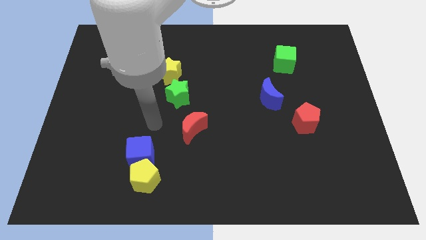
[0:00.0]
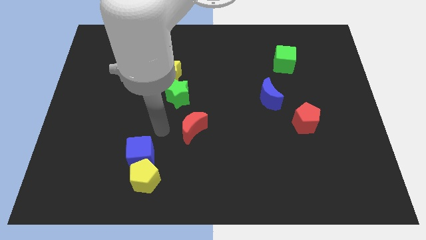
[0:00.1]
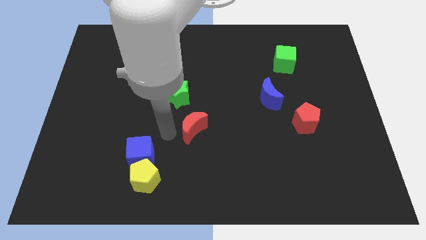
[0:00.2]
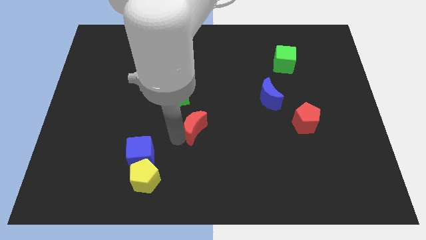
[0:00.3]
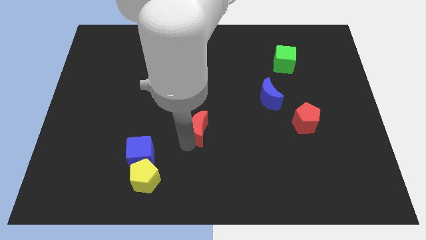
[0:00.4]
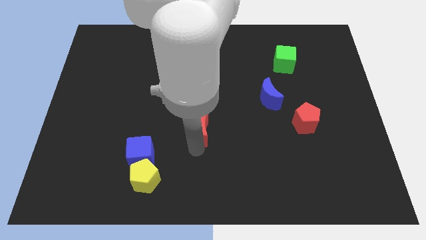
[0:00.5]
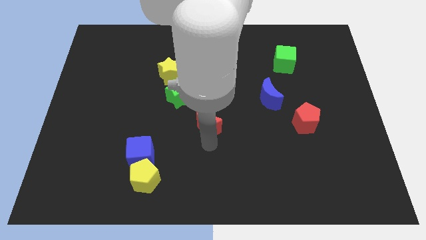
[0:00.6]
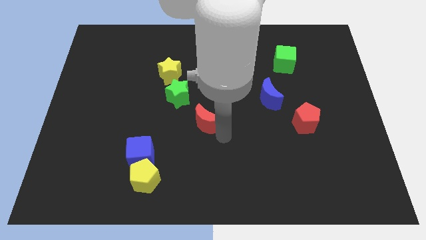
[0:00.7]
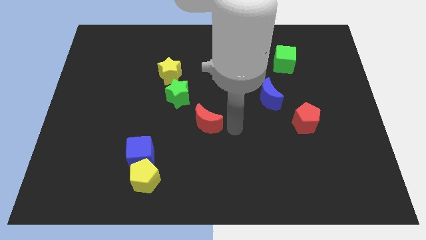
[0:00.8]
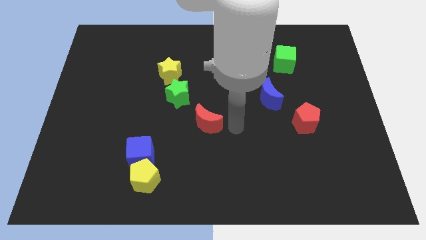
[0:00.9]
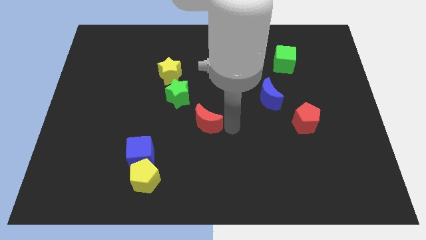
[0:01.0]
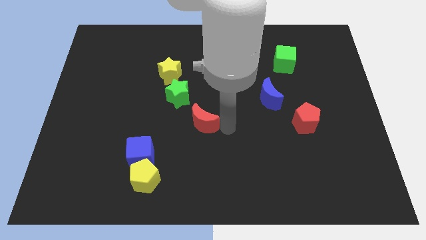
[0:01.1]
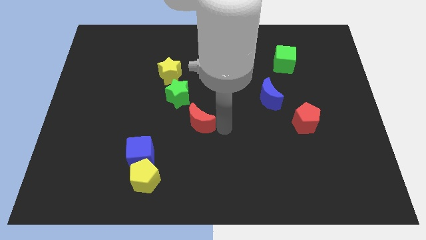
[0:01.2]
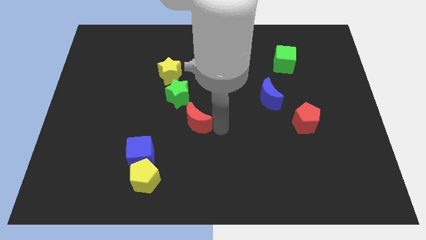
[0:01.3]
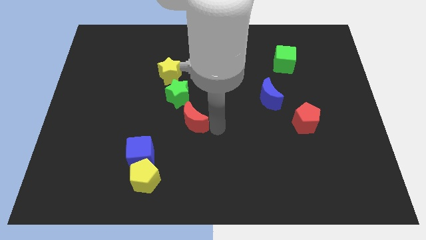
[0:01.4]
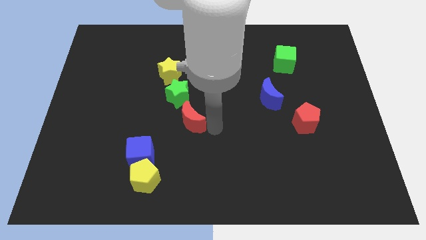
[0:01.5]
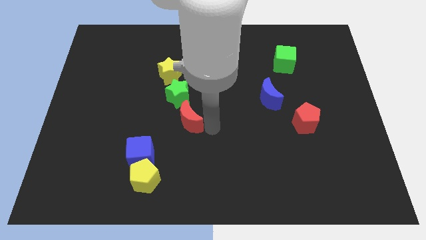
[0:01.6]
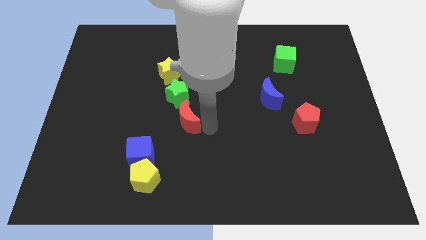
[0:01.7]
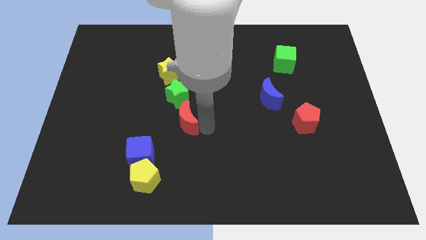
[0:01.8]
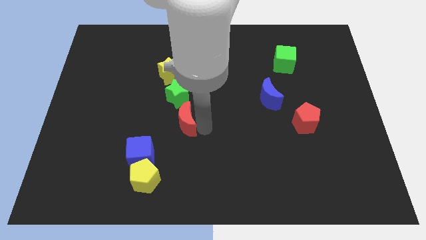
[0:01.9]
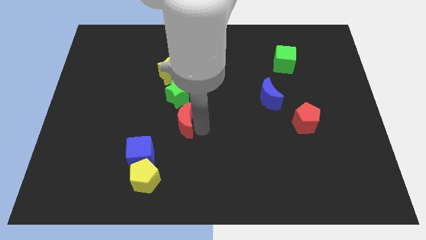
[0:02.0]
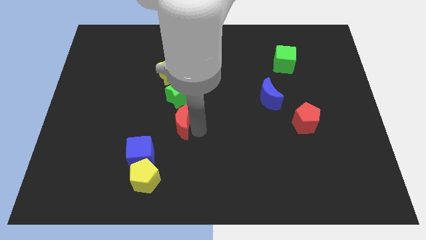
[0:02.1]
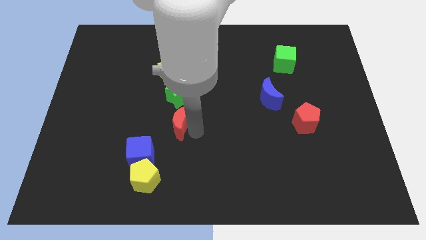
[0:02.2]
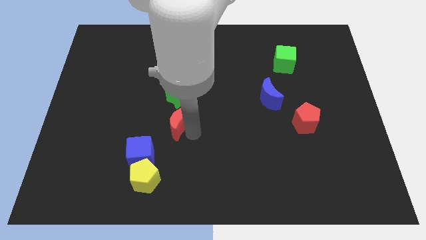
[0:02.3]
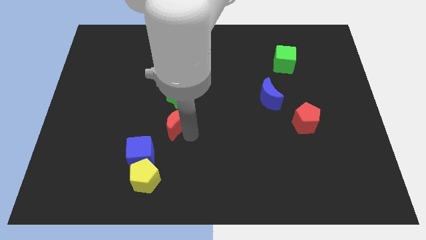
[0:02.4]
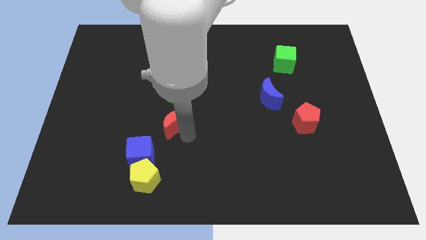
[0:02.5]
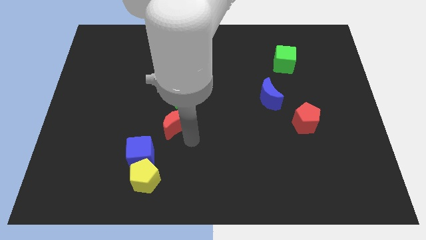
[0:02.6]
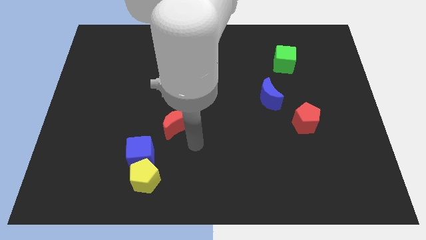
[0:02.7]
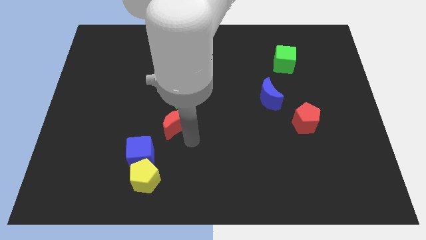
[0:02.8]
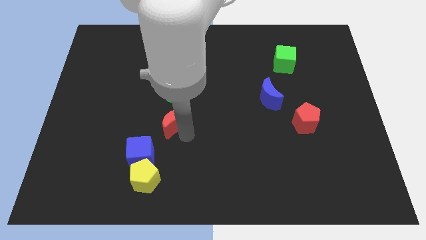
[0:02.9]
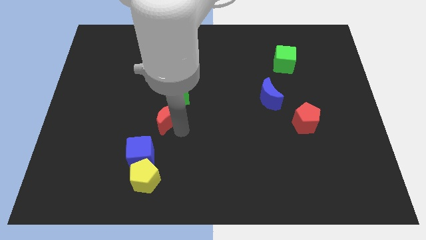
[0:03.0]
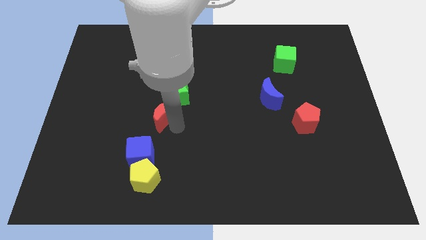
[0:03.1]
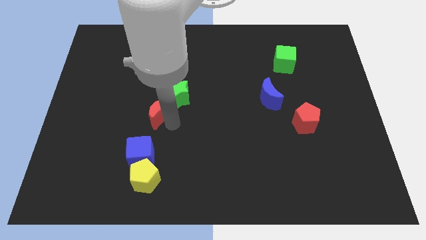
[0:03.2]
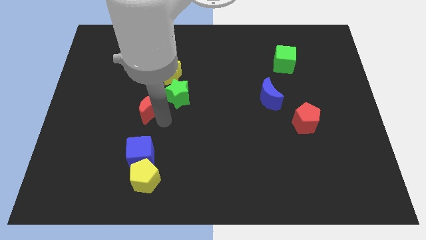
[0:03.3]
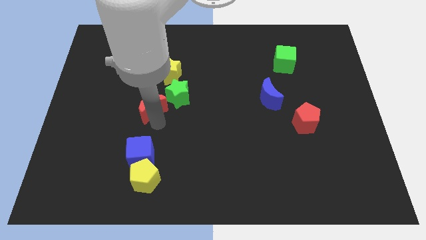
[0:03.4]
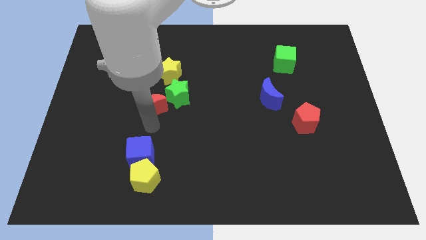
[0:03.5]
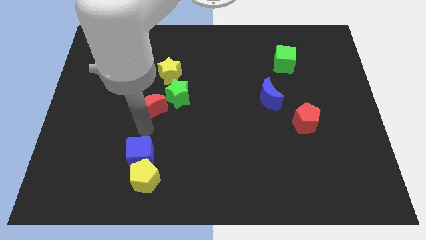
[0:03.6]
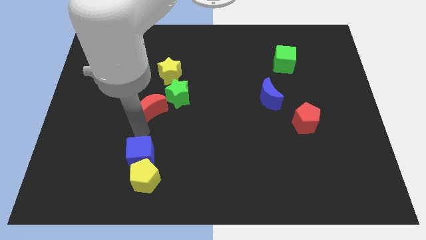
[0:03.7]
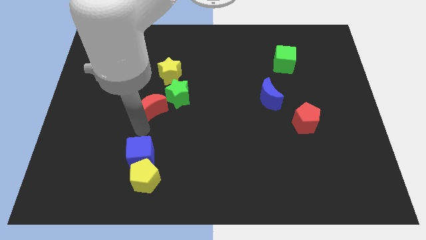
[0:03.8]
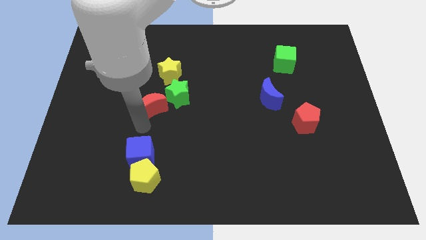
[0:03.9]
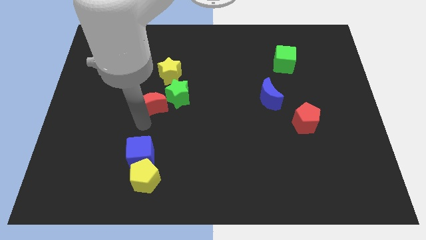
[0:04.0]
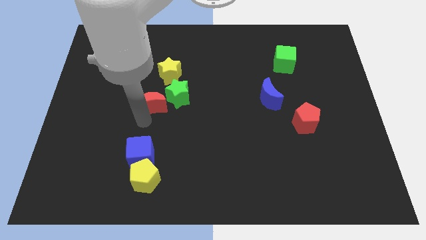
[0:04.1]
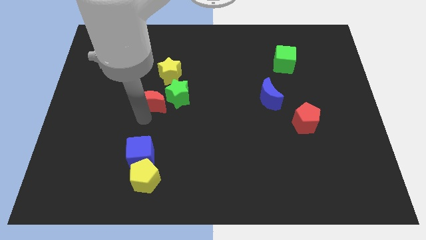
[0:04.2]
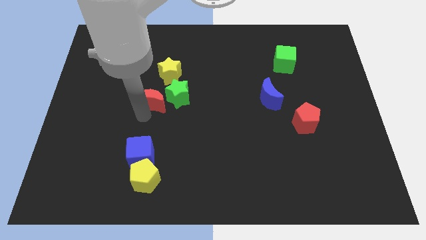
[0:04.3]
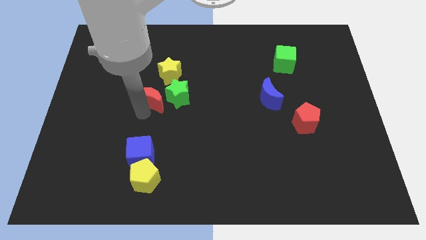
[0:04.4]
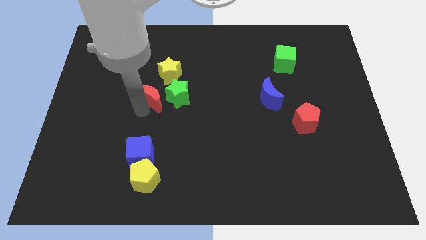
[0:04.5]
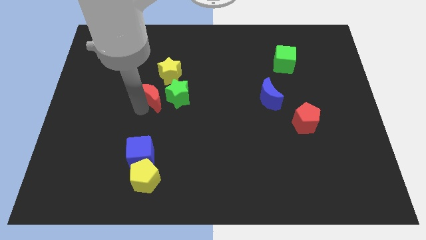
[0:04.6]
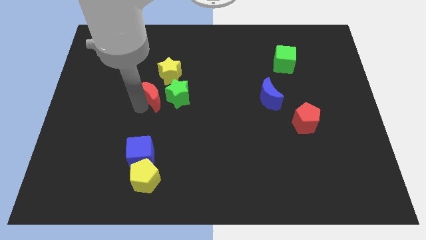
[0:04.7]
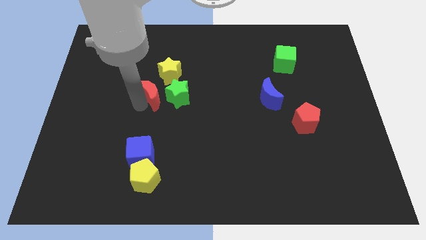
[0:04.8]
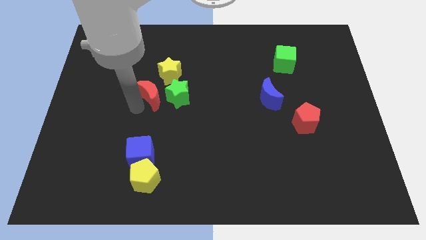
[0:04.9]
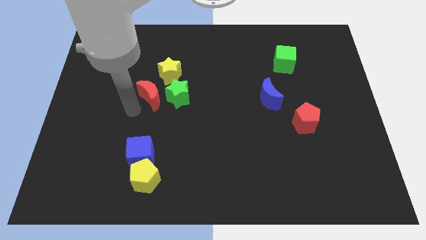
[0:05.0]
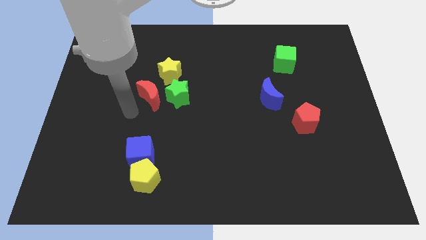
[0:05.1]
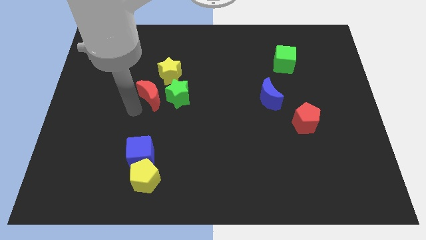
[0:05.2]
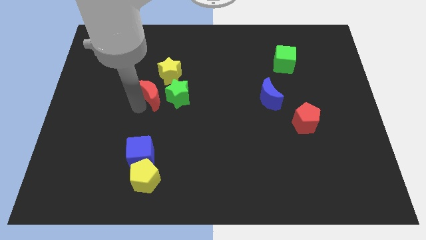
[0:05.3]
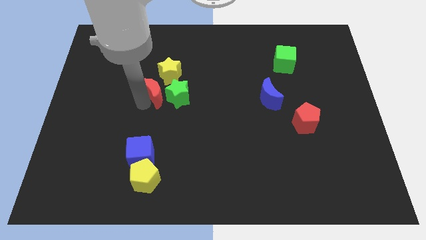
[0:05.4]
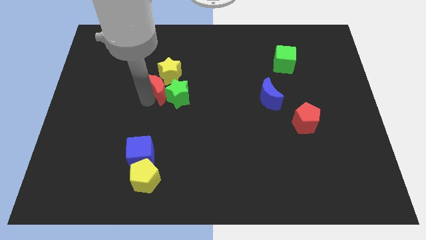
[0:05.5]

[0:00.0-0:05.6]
move the red moon next to the yellow star

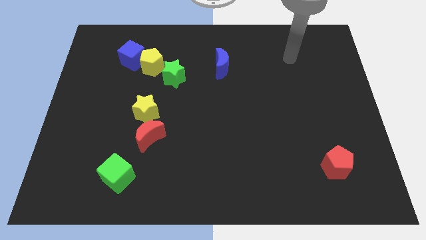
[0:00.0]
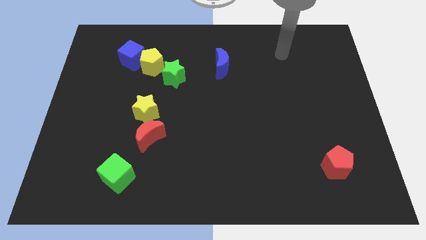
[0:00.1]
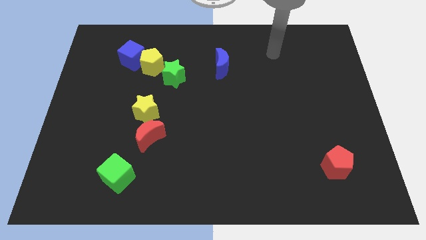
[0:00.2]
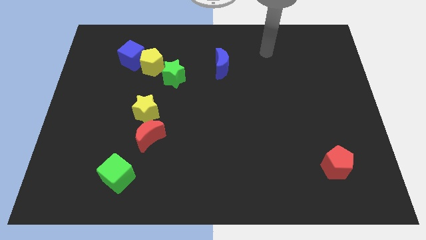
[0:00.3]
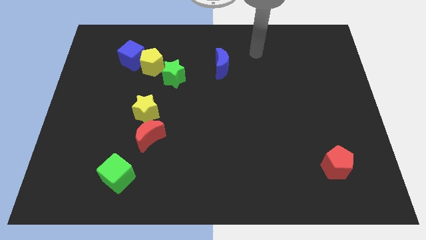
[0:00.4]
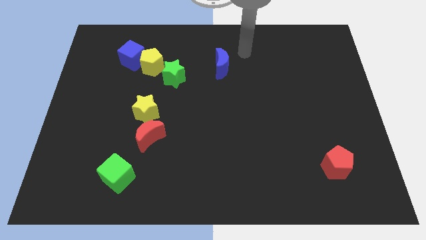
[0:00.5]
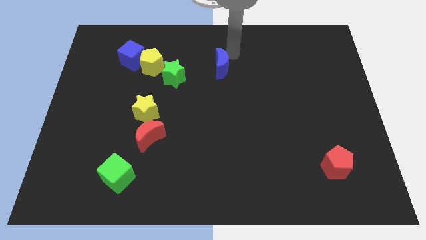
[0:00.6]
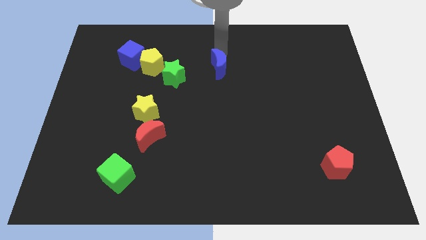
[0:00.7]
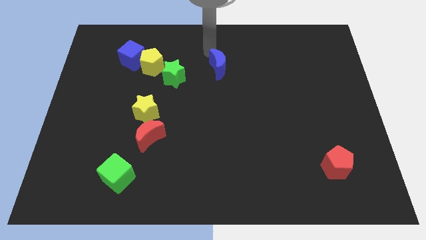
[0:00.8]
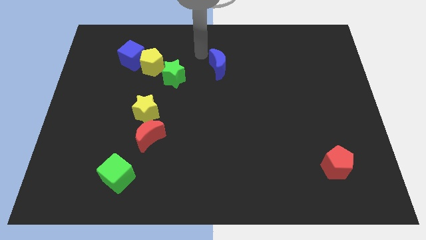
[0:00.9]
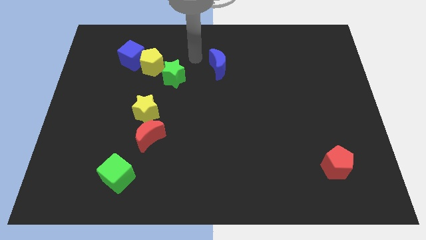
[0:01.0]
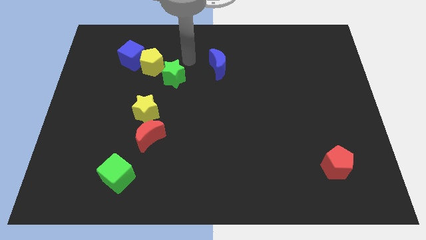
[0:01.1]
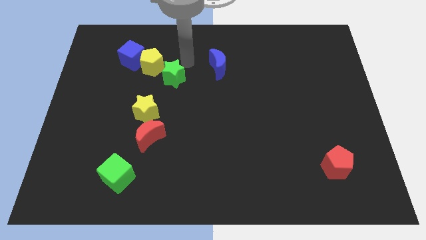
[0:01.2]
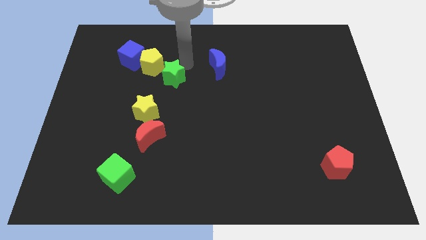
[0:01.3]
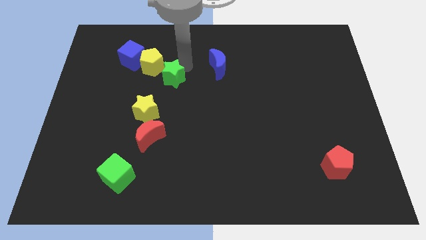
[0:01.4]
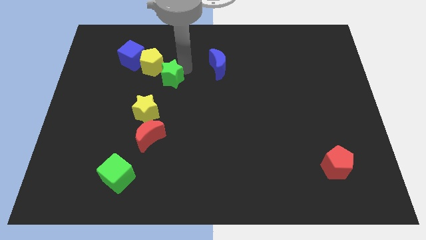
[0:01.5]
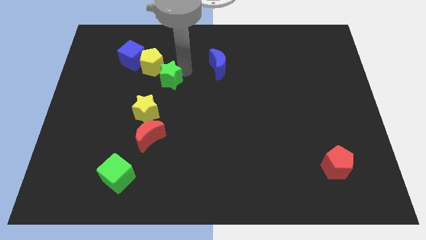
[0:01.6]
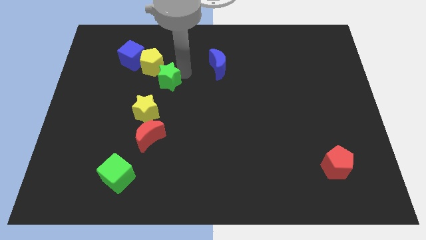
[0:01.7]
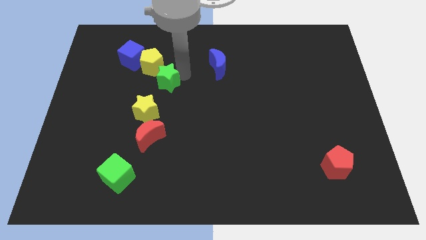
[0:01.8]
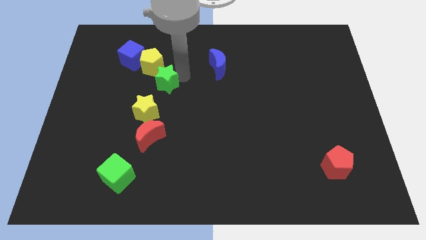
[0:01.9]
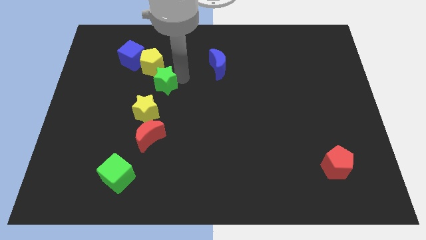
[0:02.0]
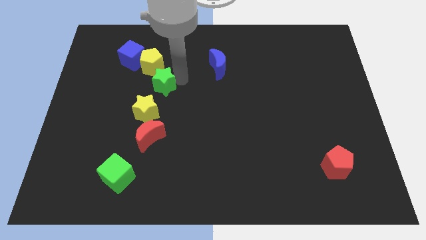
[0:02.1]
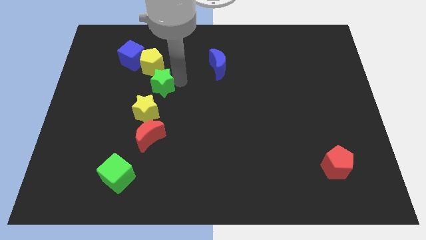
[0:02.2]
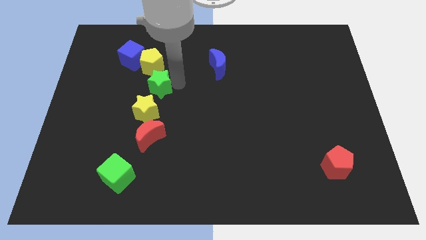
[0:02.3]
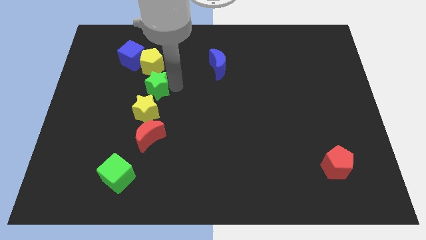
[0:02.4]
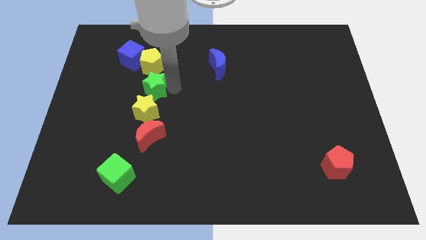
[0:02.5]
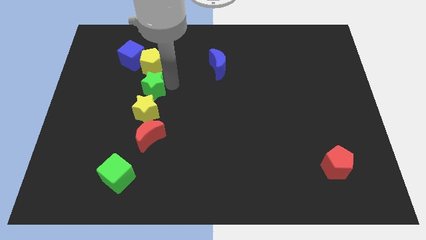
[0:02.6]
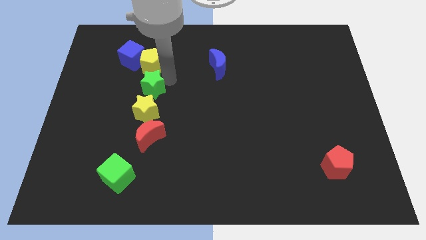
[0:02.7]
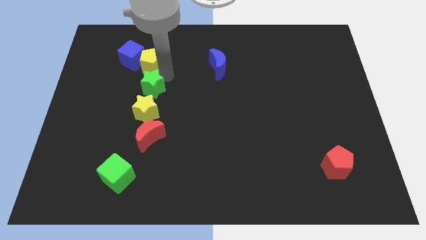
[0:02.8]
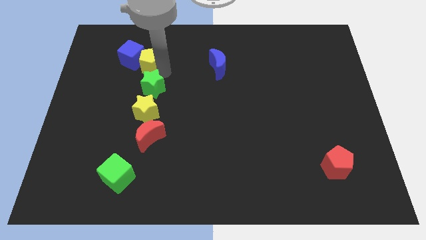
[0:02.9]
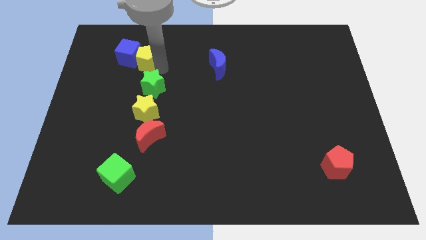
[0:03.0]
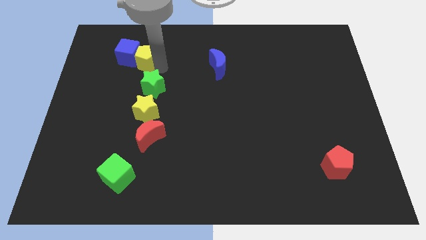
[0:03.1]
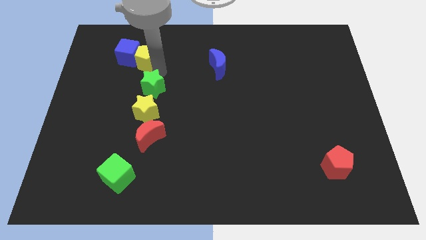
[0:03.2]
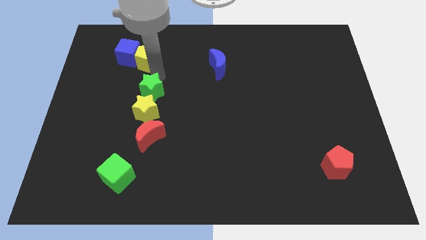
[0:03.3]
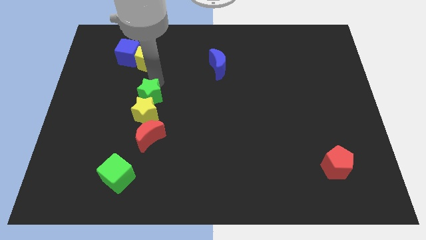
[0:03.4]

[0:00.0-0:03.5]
move the green star to the yellow star
